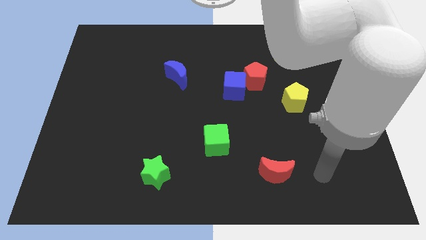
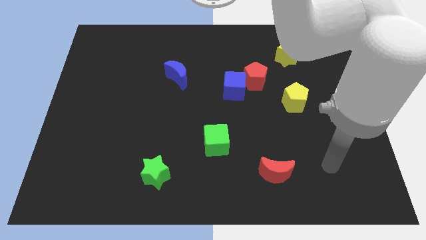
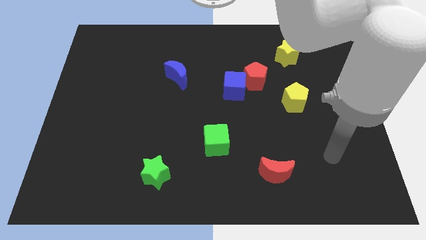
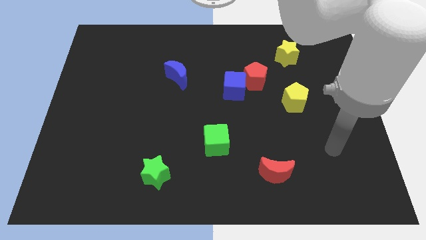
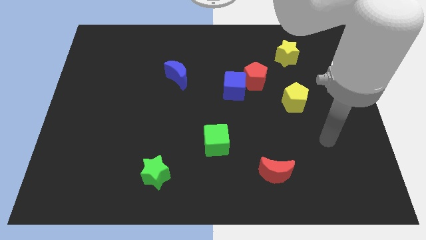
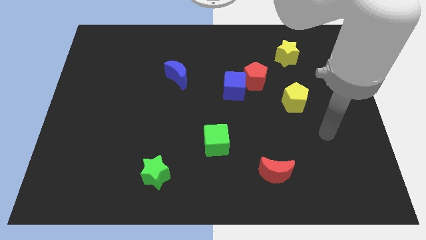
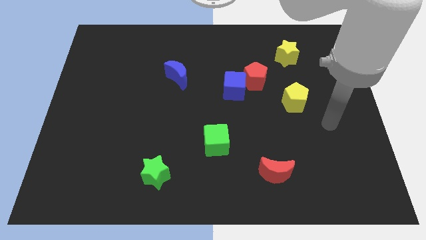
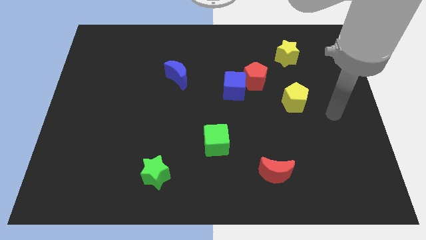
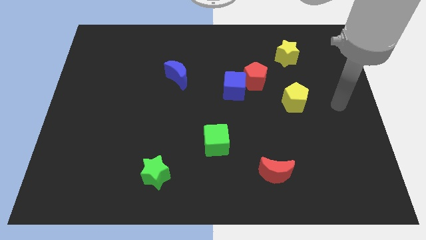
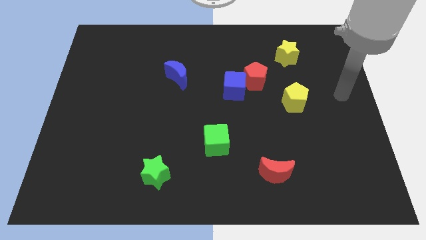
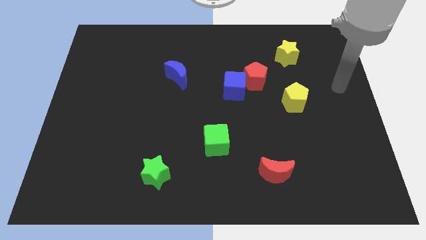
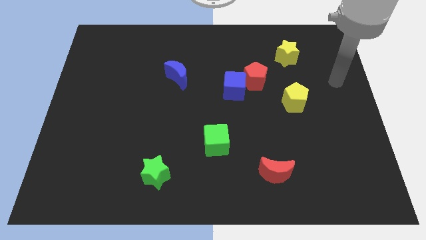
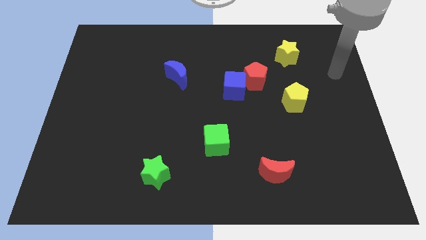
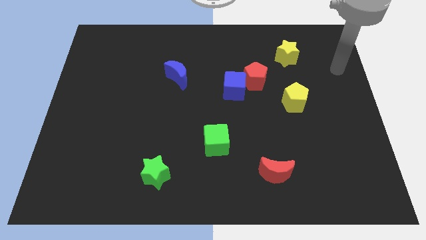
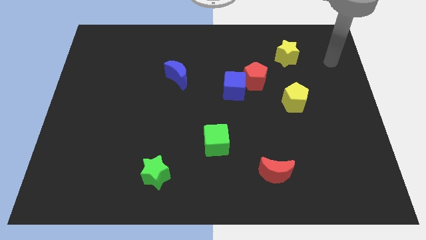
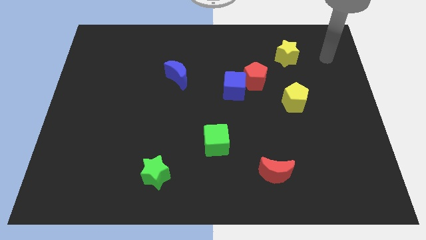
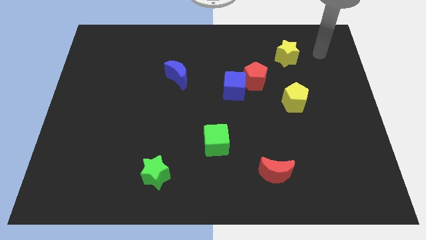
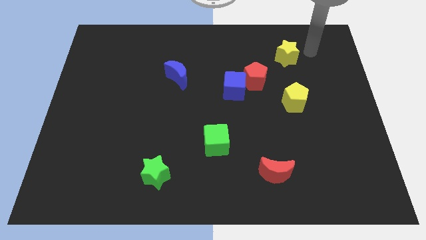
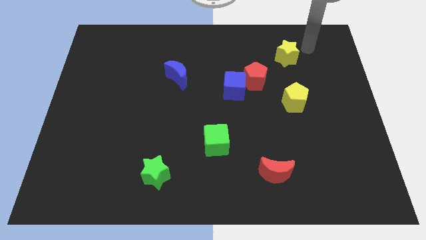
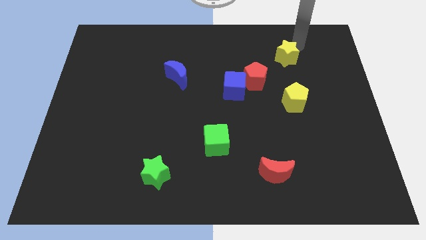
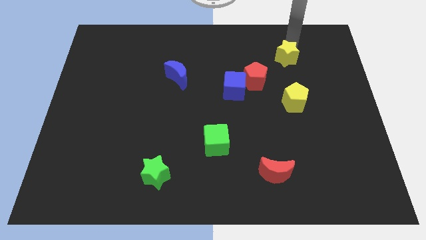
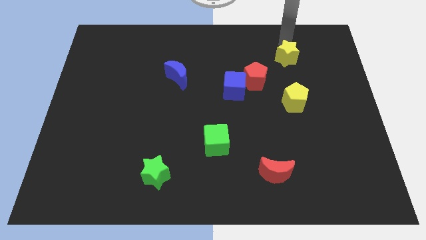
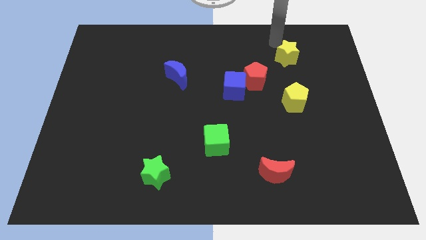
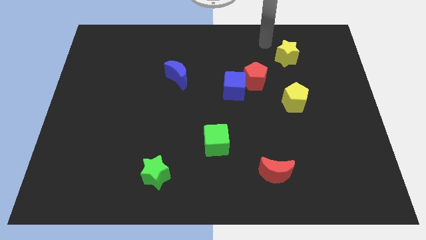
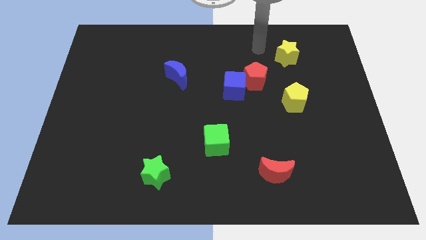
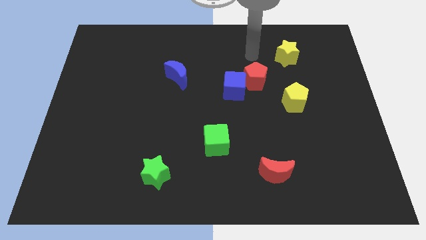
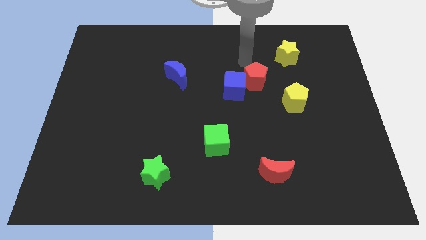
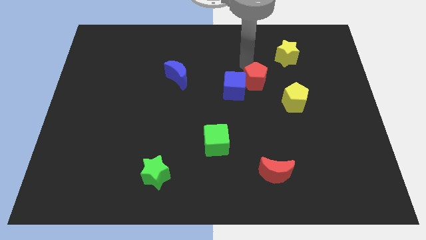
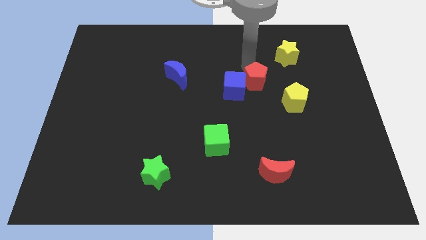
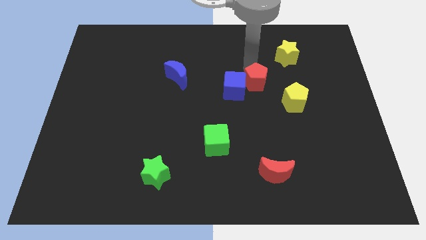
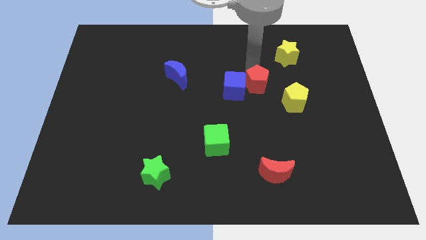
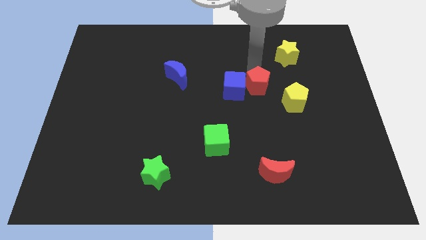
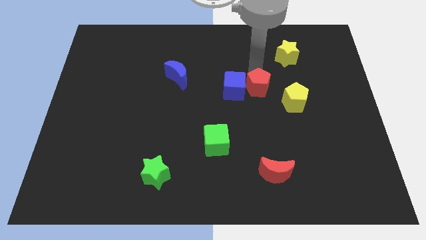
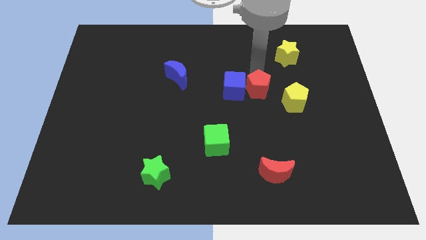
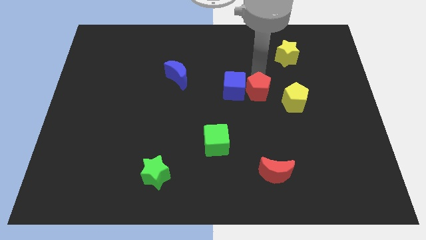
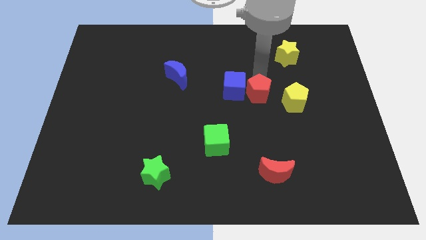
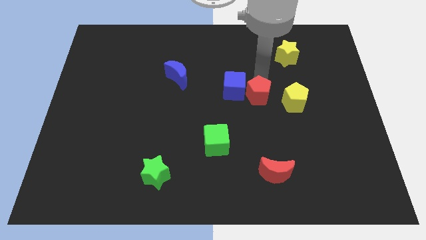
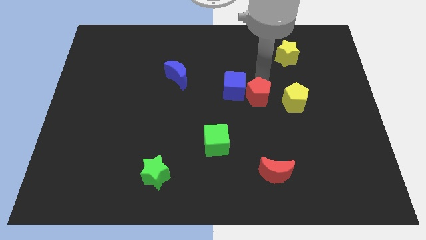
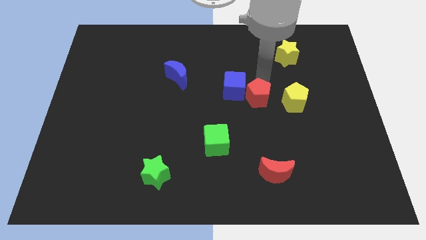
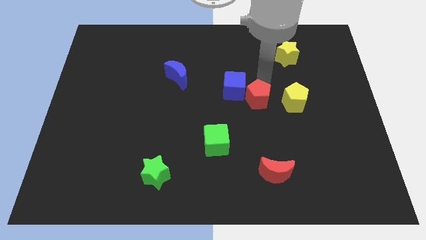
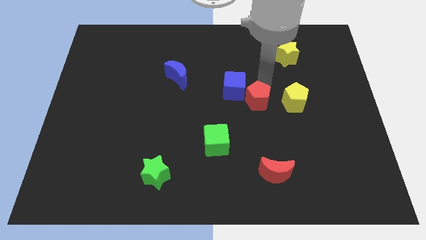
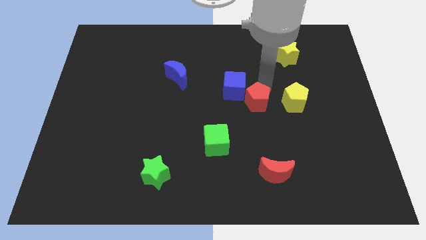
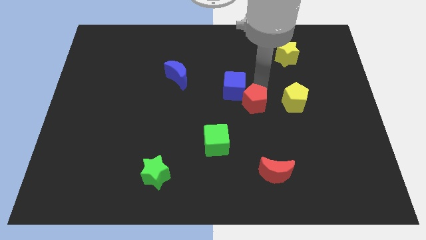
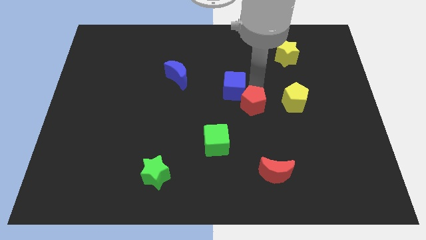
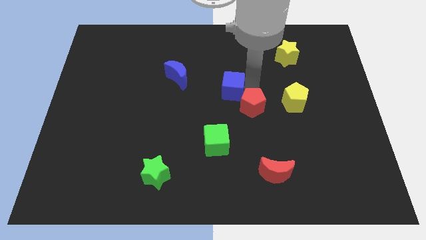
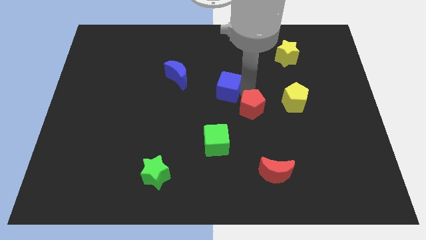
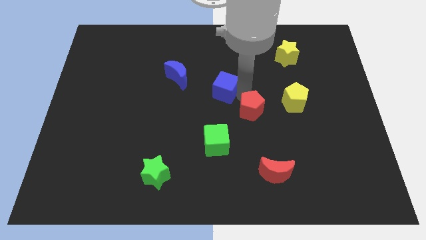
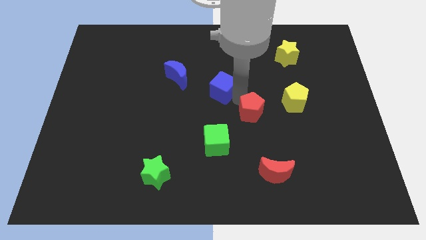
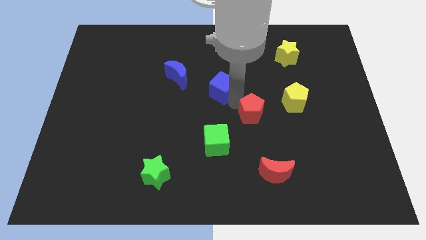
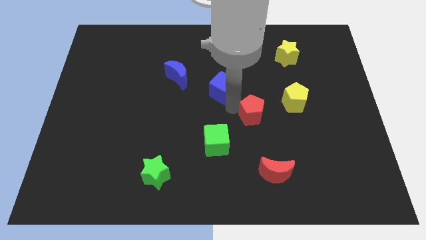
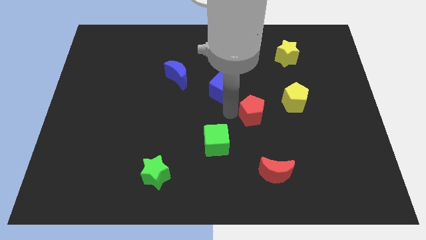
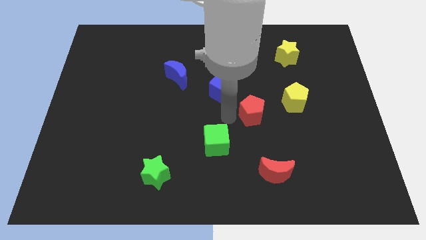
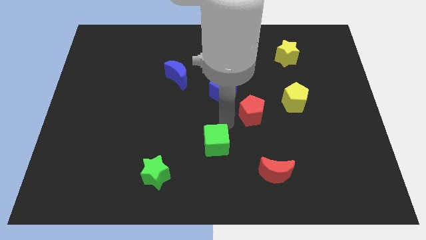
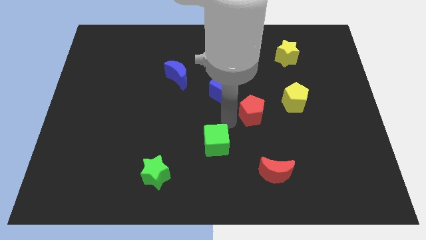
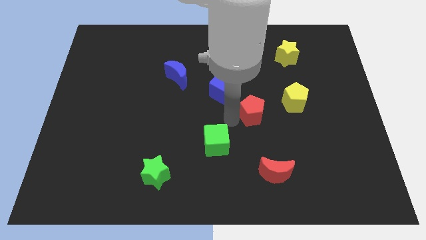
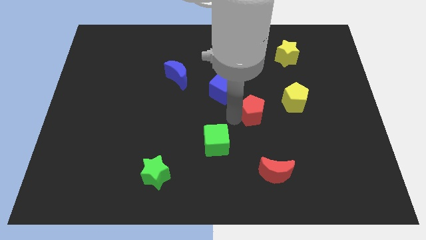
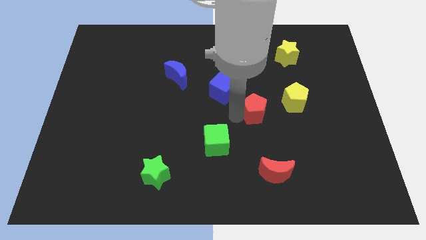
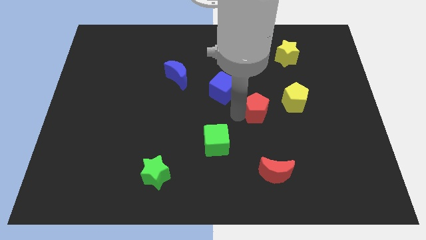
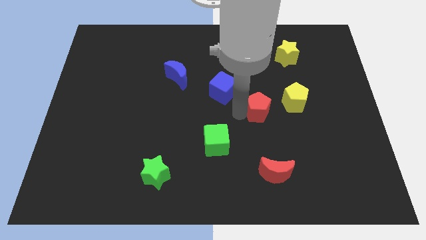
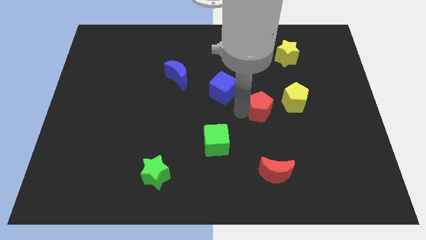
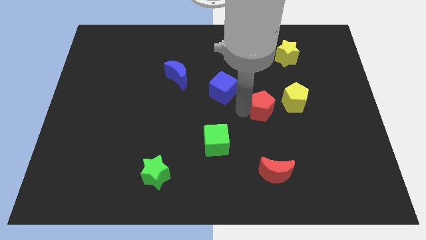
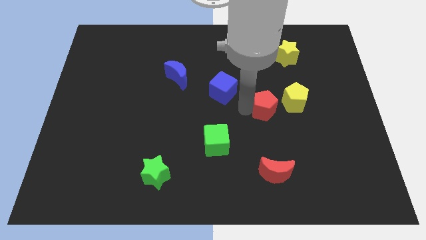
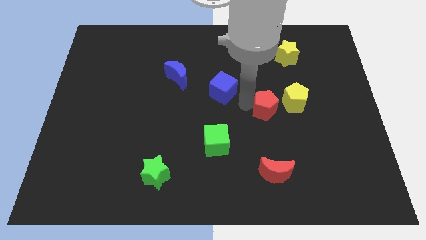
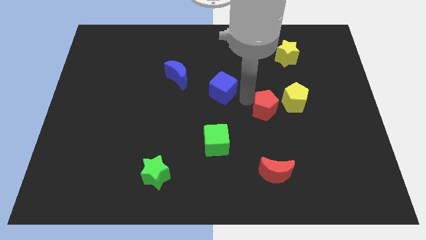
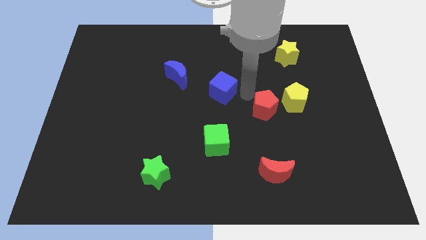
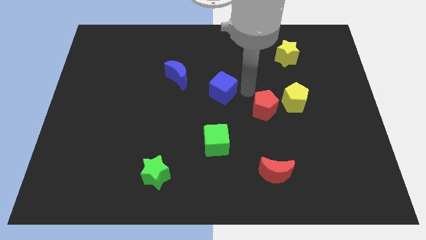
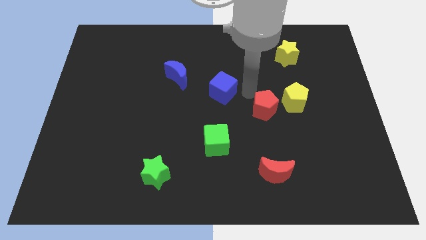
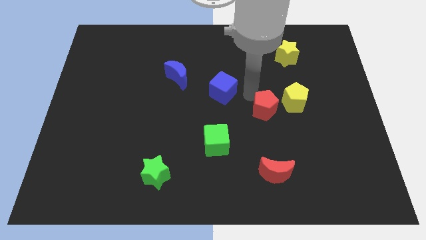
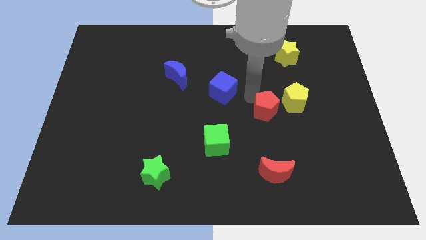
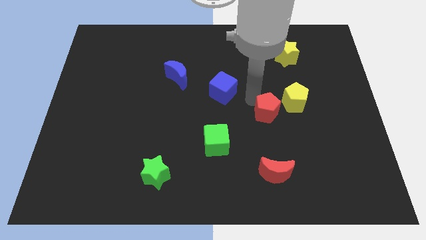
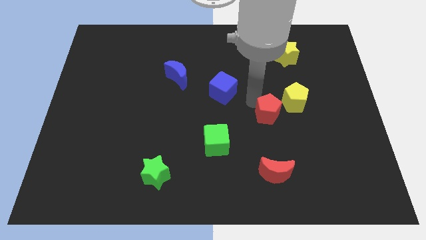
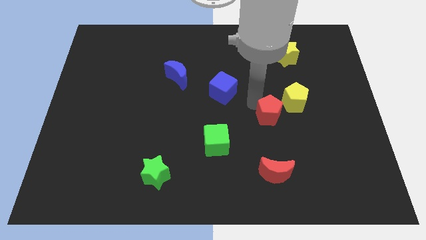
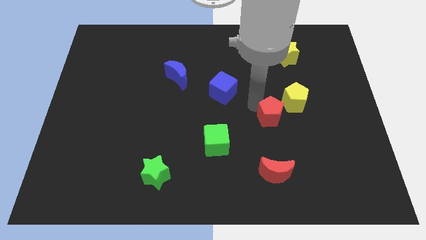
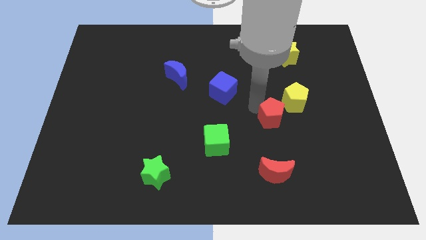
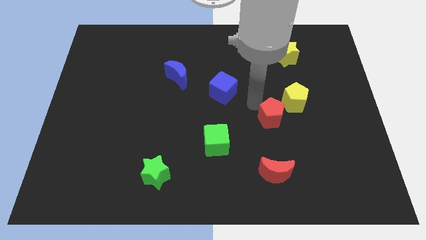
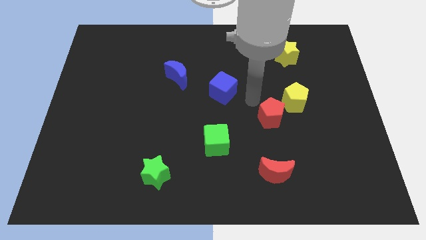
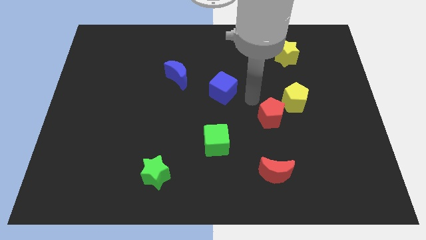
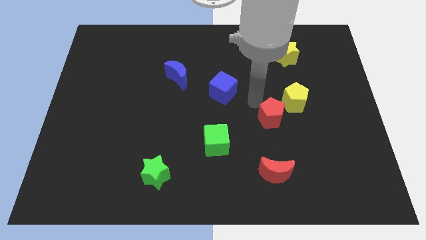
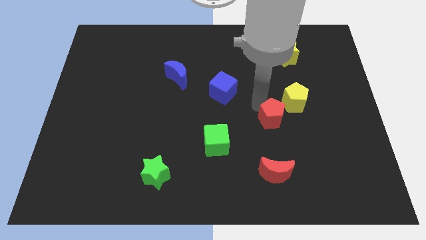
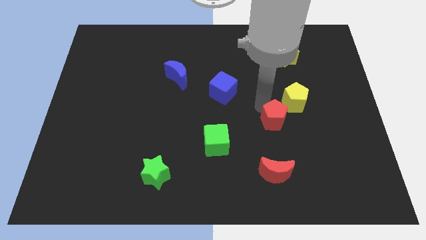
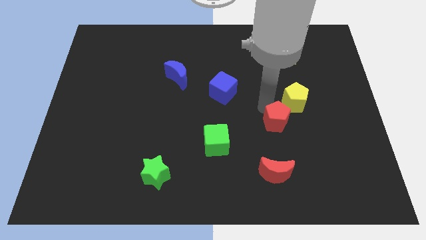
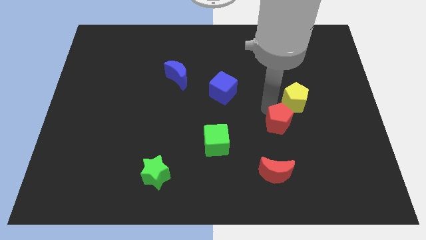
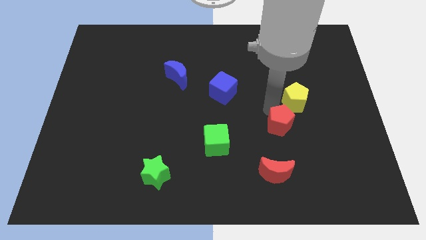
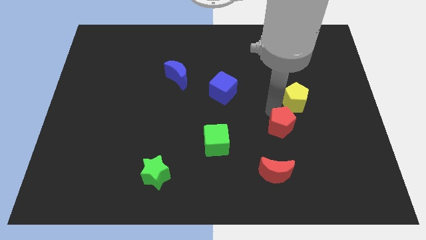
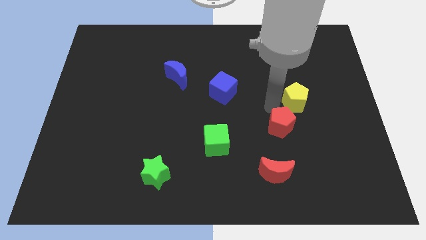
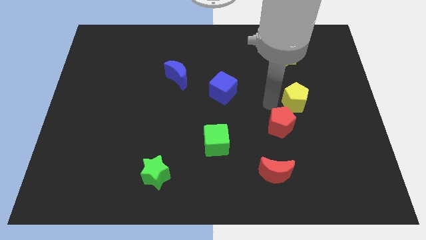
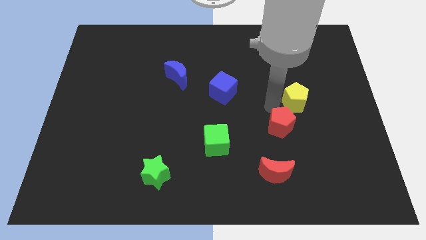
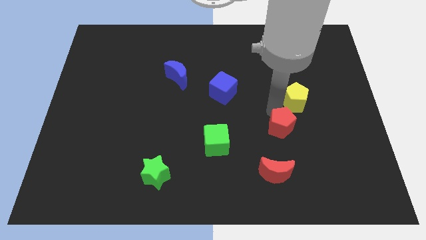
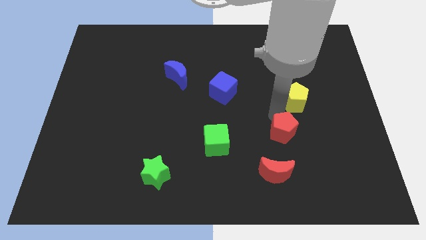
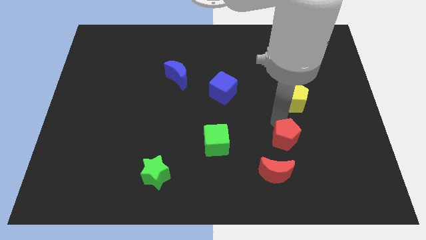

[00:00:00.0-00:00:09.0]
slide the red pentagon to the top right side of the red moon
